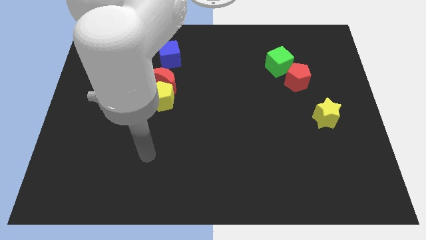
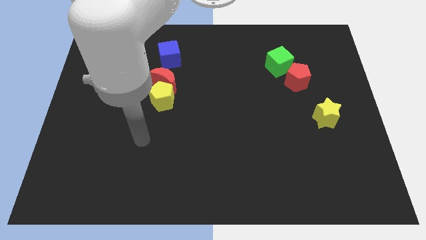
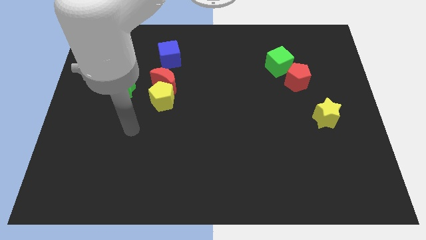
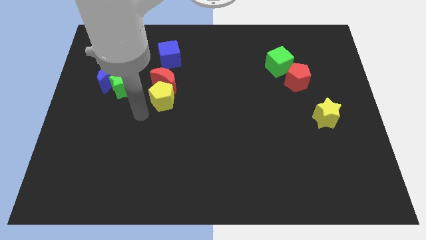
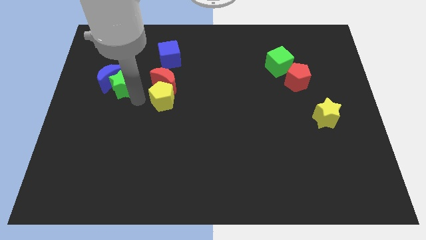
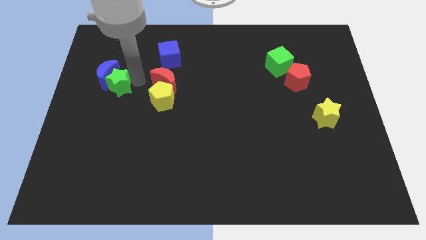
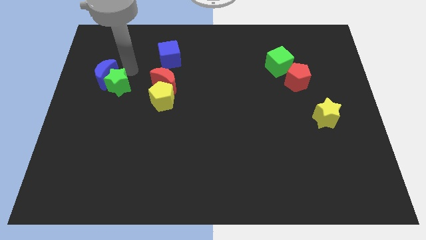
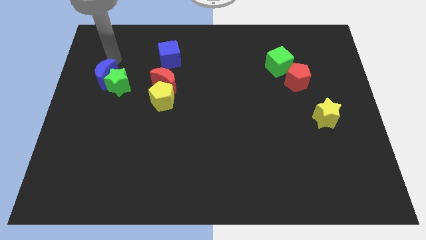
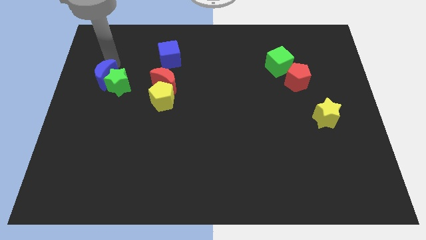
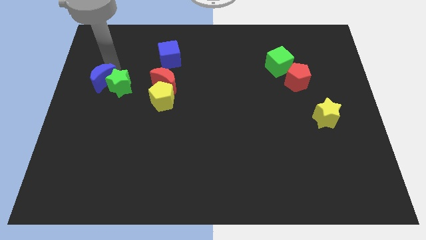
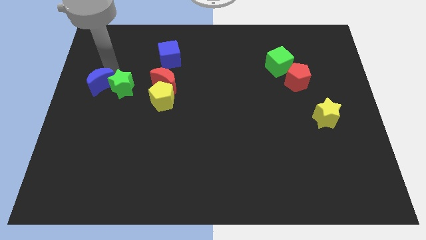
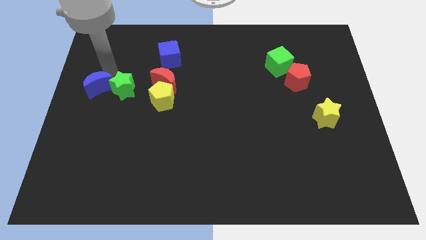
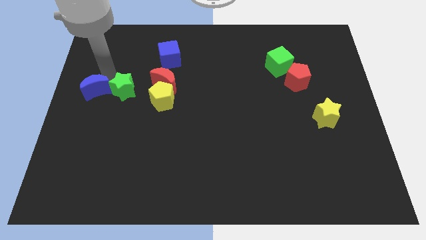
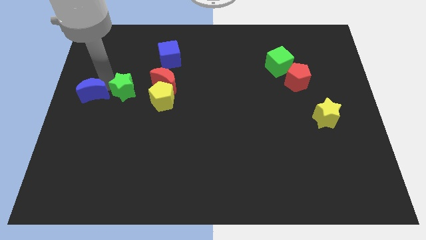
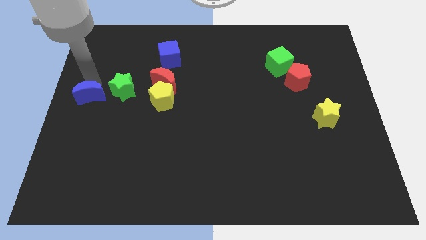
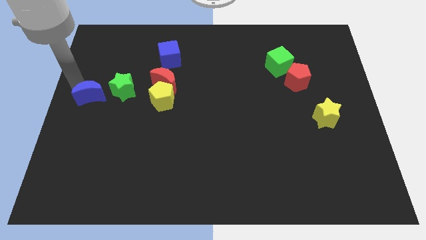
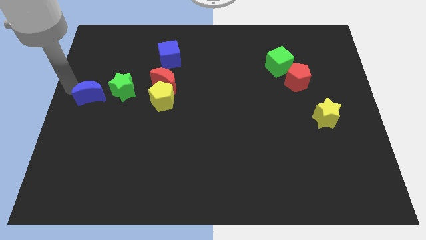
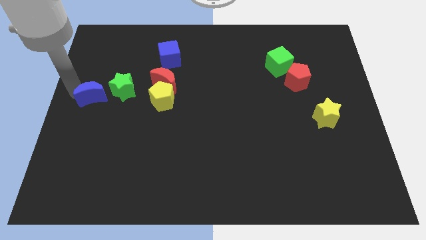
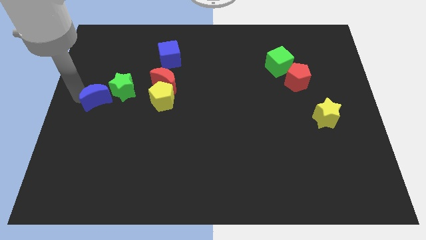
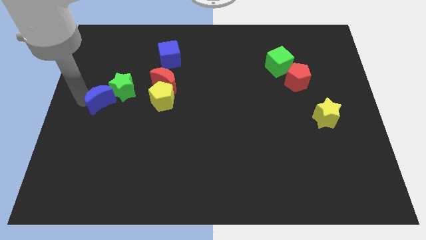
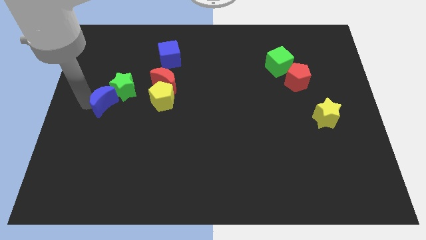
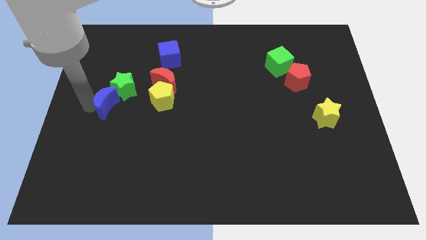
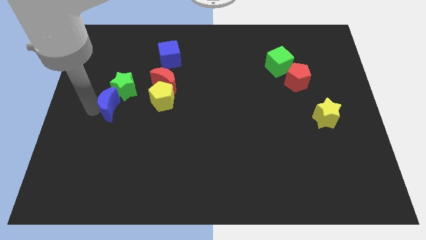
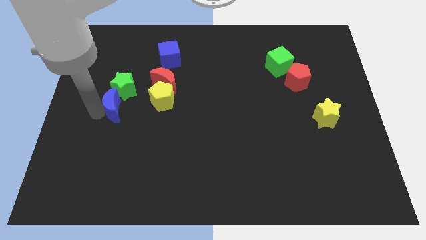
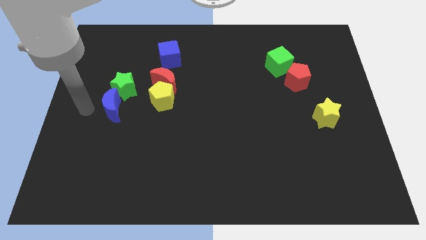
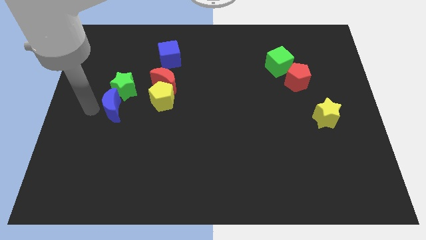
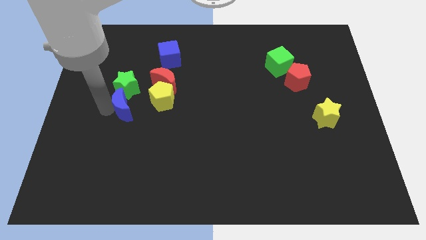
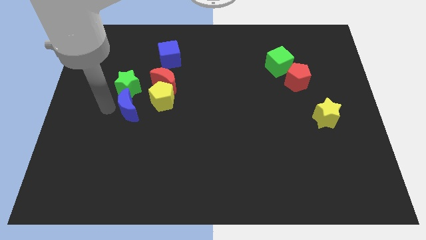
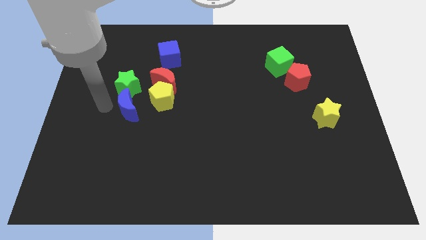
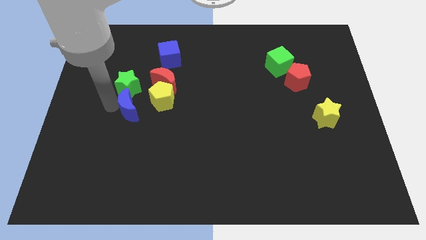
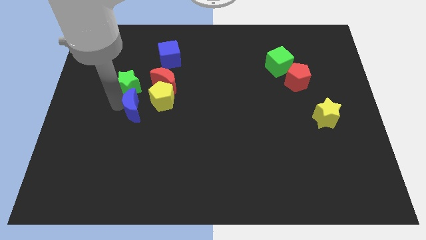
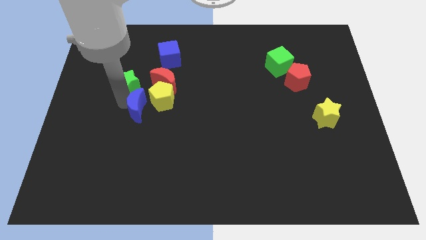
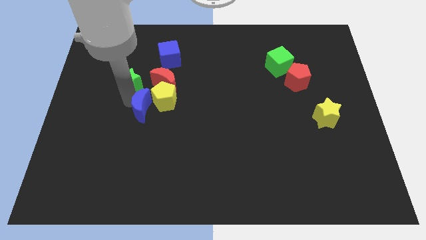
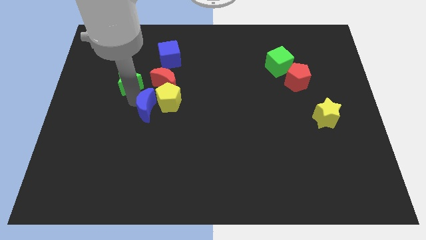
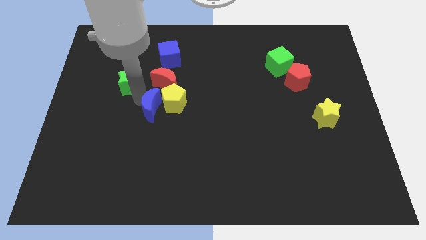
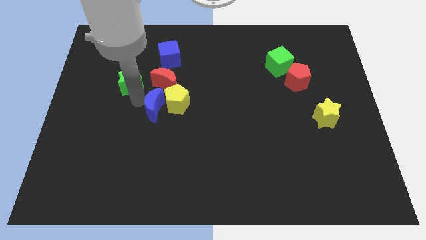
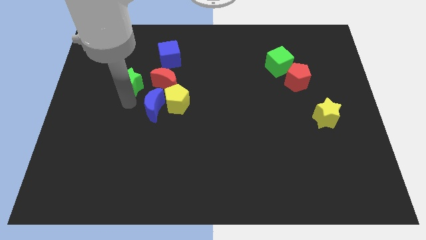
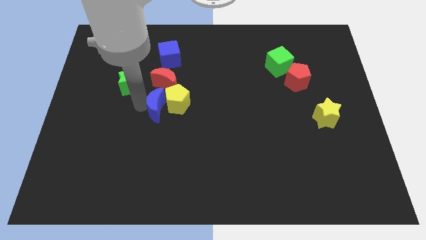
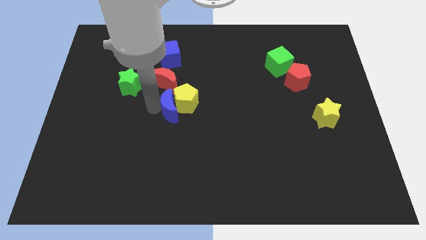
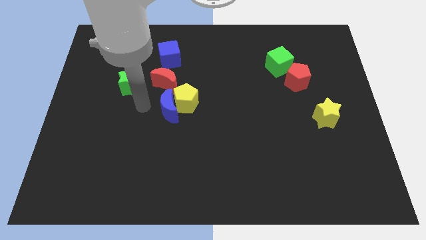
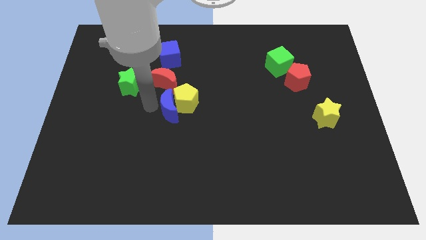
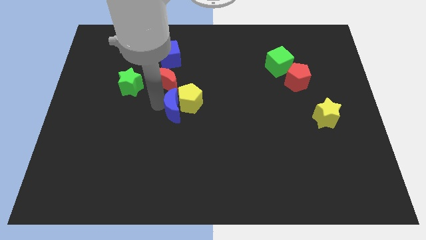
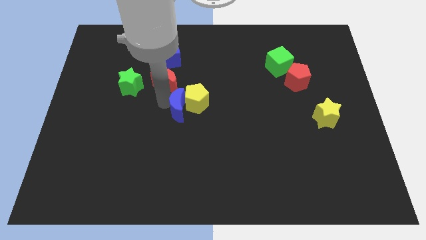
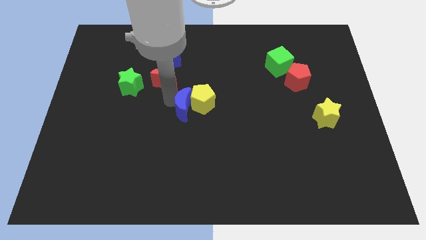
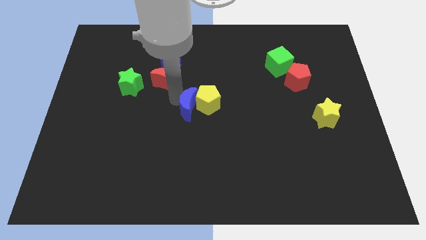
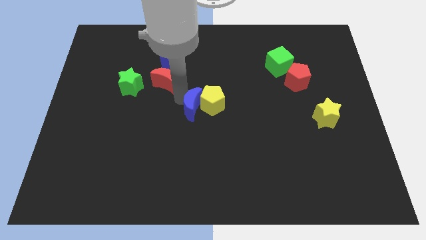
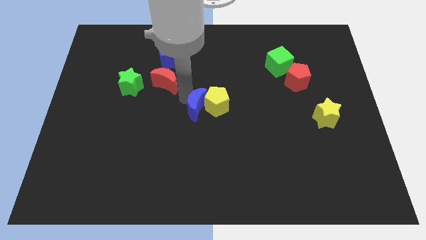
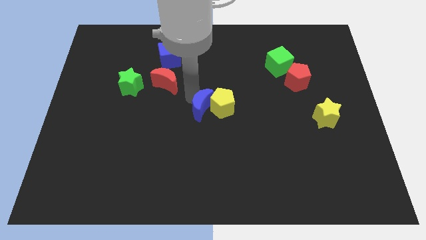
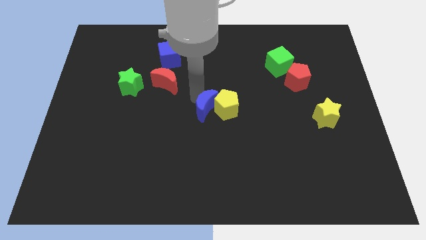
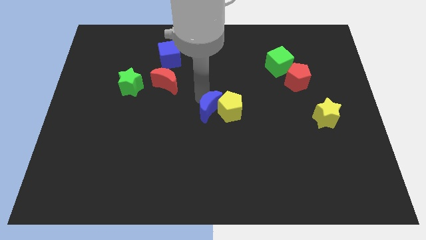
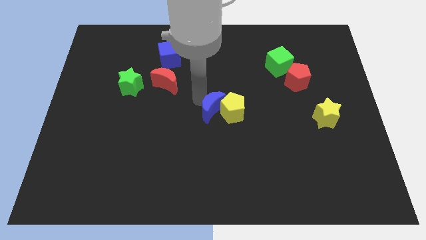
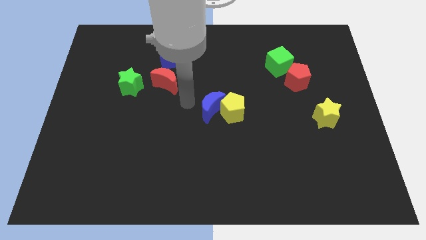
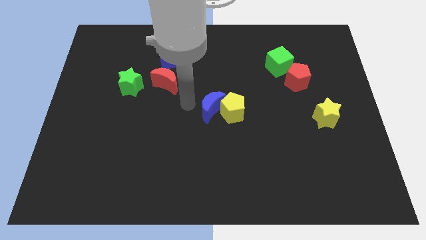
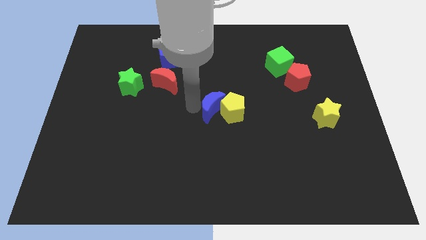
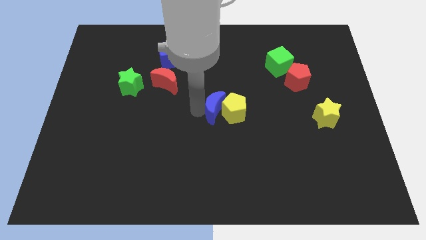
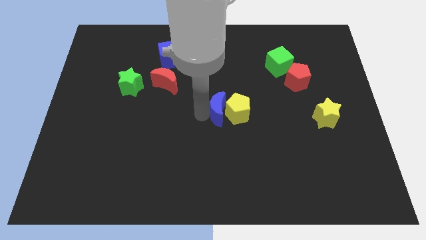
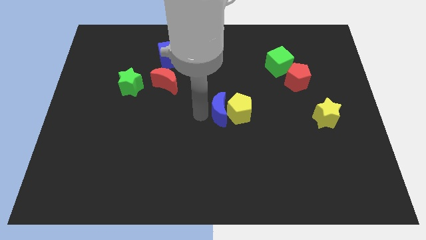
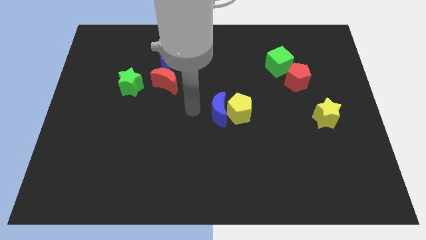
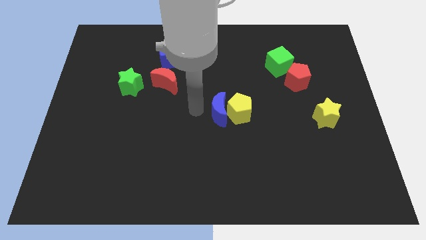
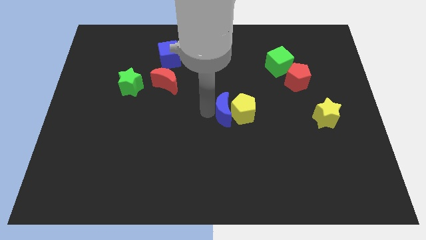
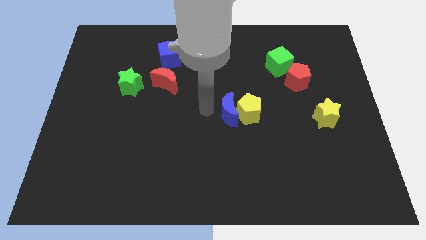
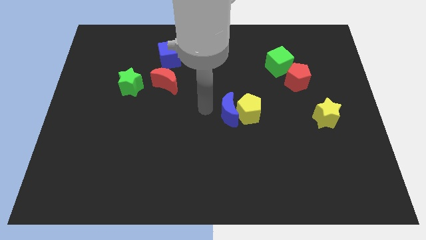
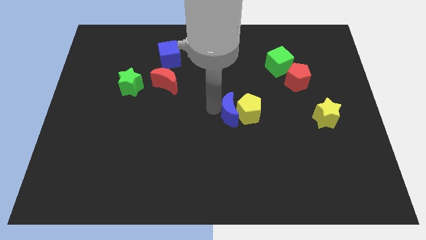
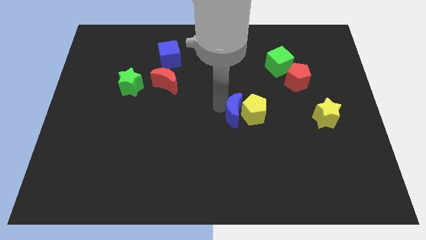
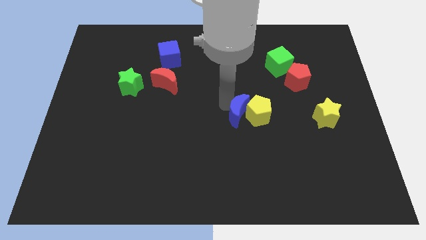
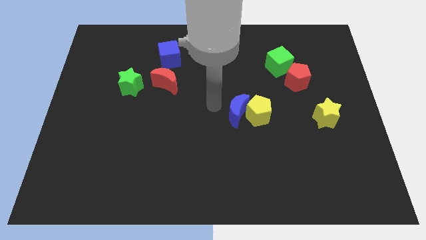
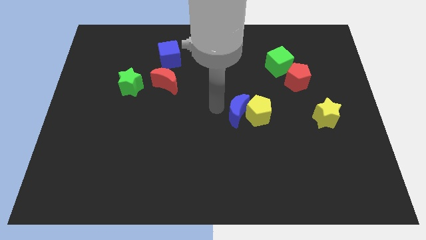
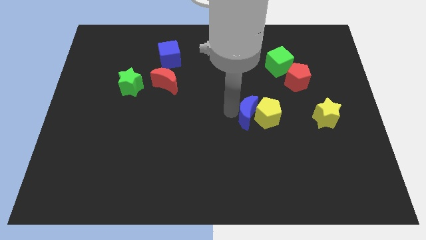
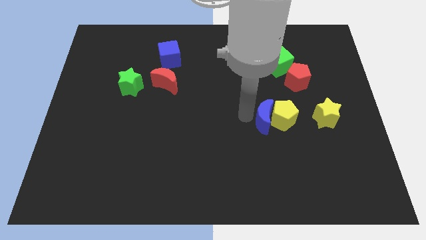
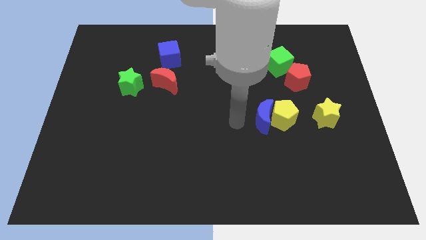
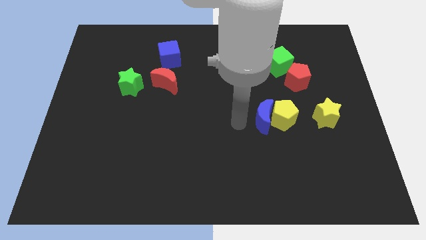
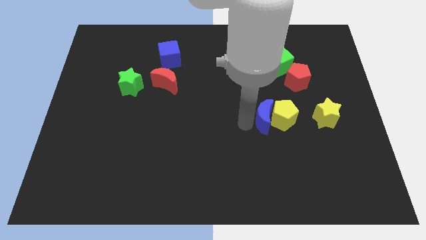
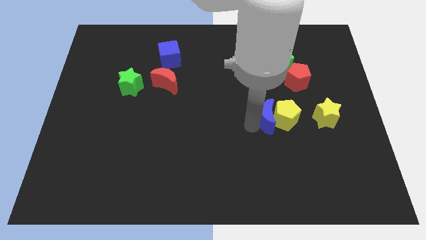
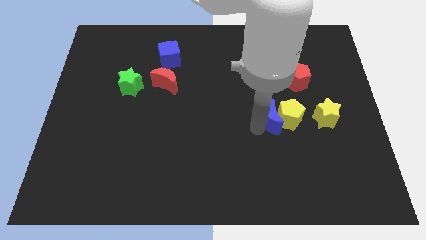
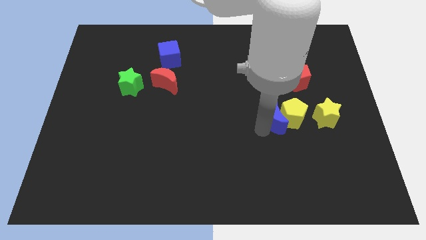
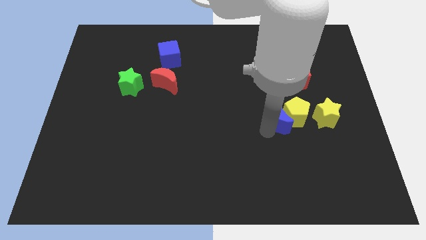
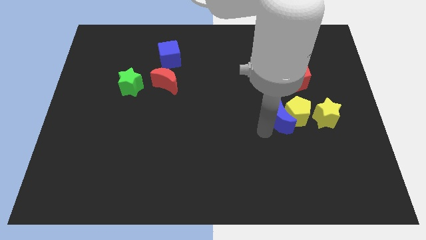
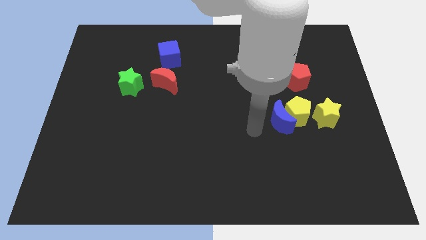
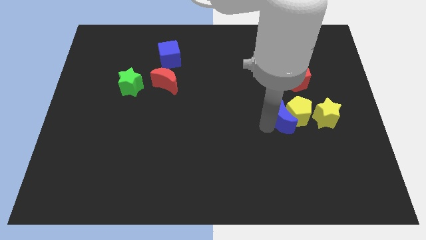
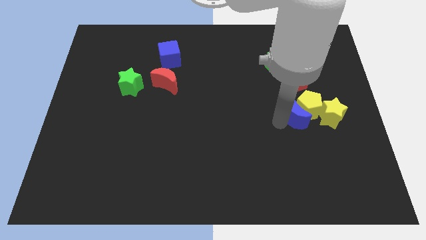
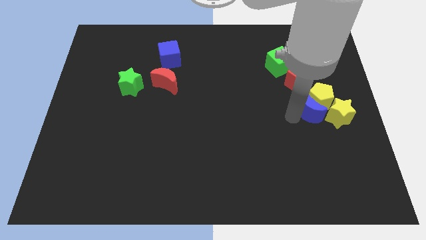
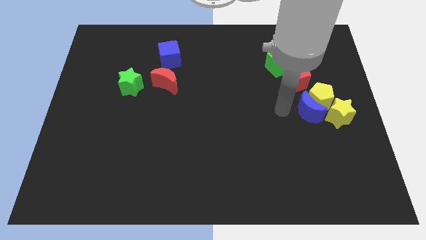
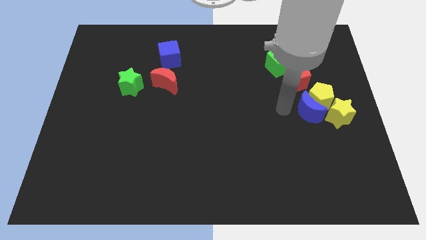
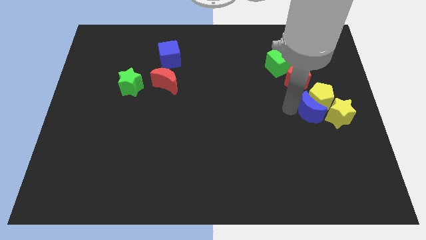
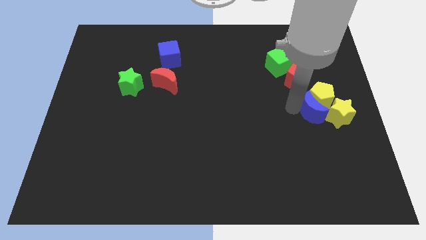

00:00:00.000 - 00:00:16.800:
move the blue moon towards the yellow star
